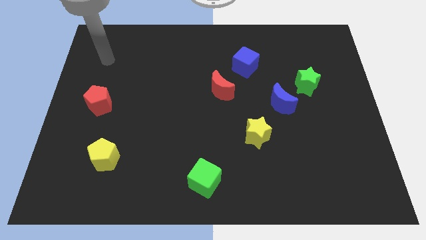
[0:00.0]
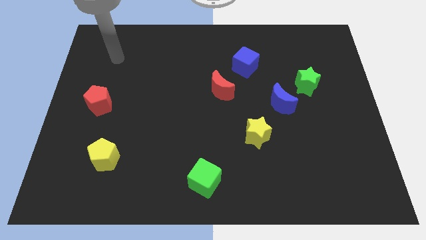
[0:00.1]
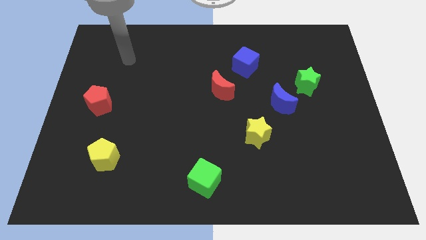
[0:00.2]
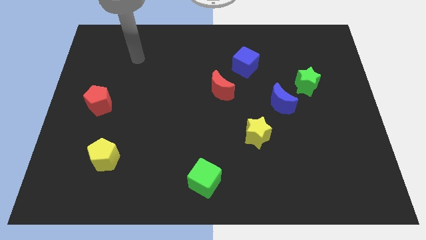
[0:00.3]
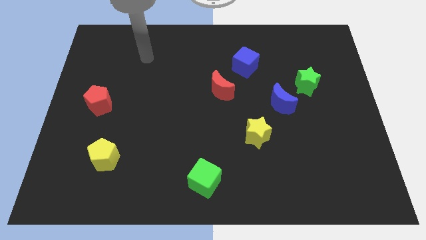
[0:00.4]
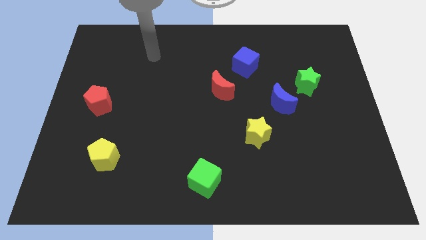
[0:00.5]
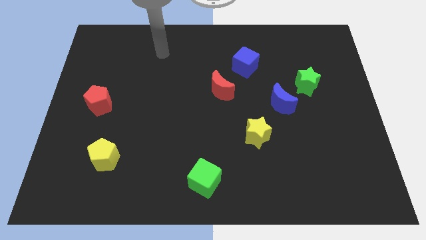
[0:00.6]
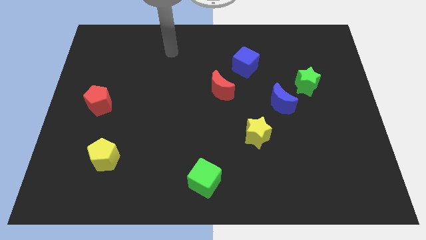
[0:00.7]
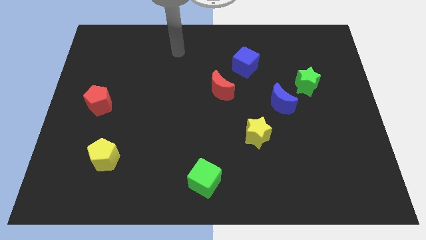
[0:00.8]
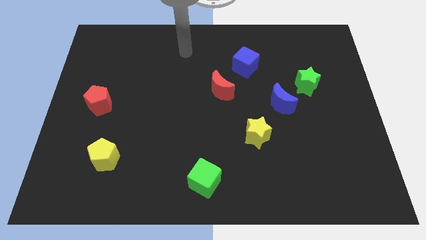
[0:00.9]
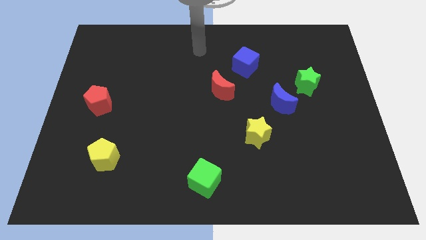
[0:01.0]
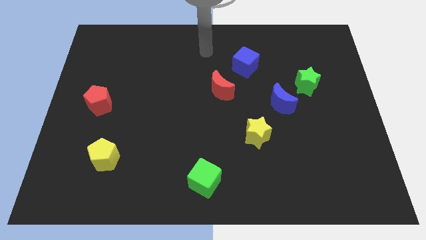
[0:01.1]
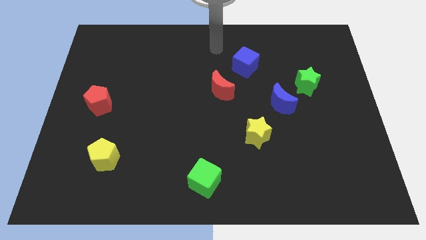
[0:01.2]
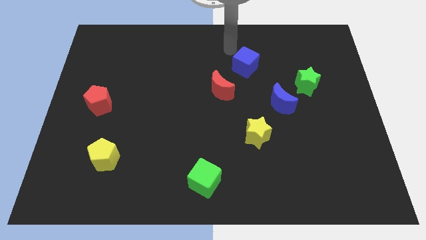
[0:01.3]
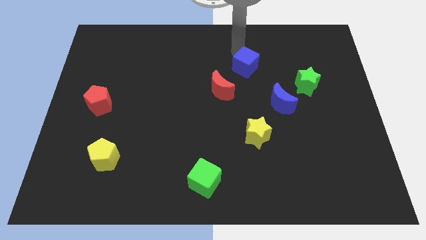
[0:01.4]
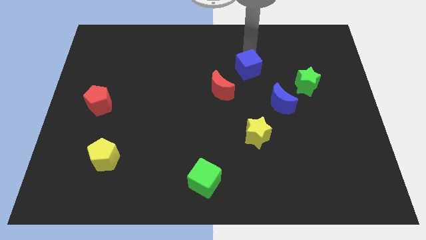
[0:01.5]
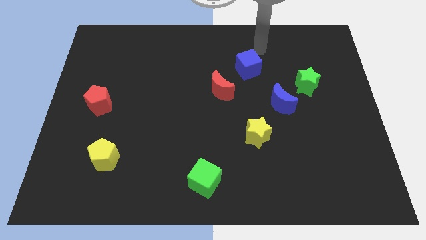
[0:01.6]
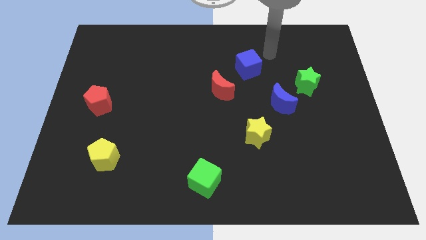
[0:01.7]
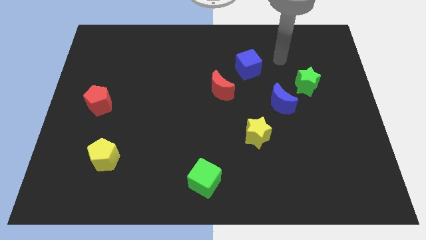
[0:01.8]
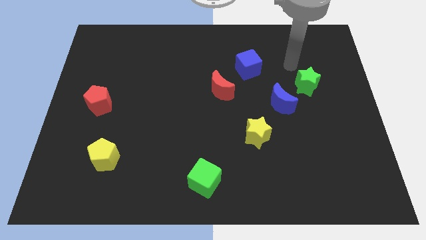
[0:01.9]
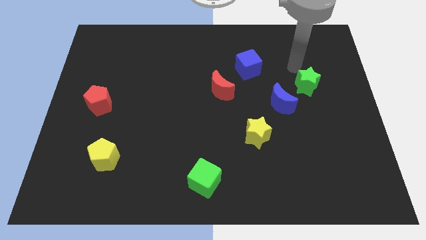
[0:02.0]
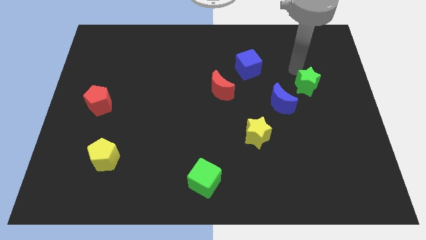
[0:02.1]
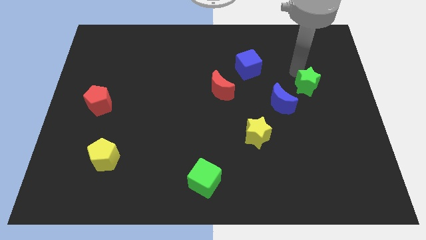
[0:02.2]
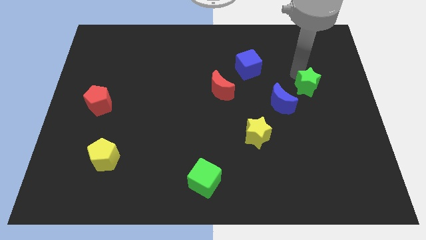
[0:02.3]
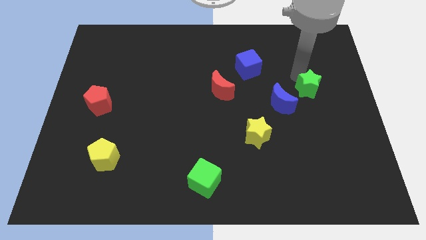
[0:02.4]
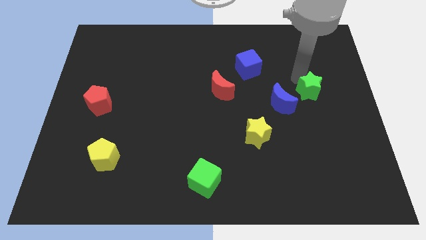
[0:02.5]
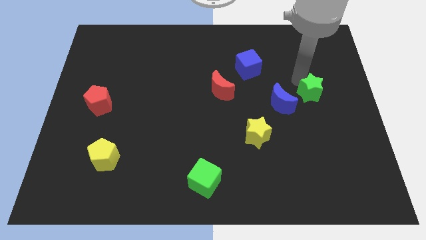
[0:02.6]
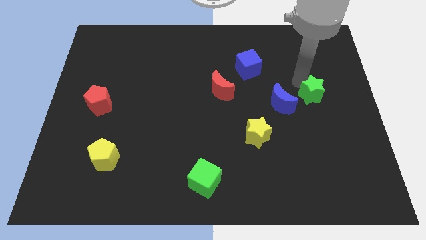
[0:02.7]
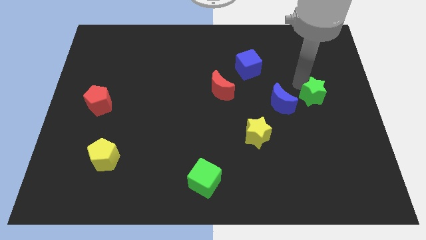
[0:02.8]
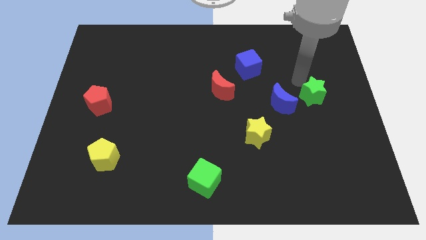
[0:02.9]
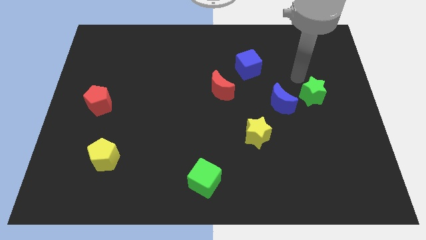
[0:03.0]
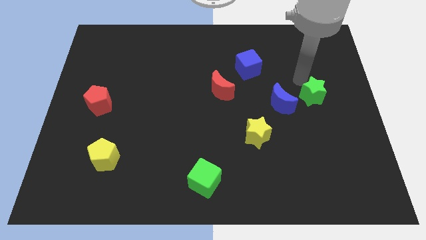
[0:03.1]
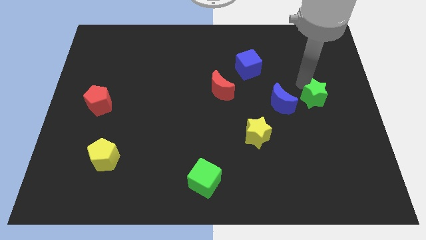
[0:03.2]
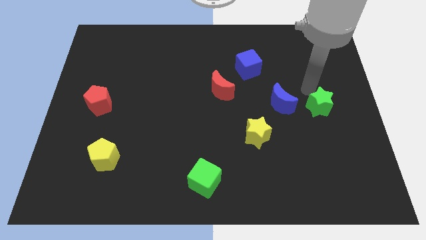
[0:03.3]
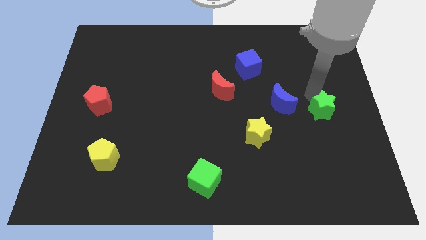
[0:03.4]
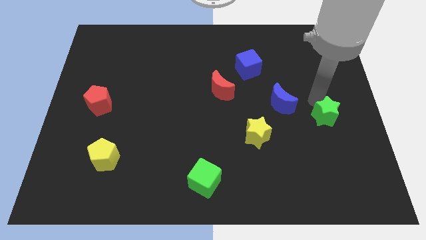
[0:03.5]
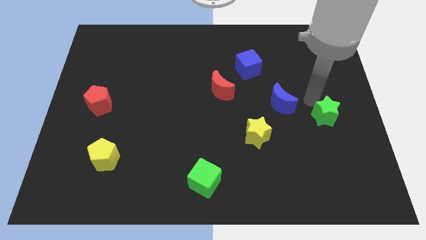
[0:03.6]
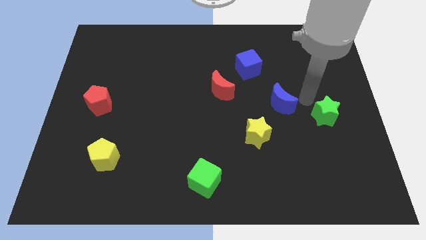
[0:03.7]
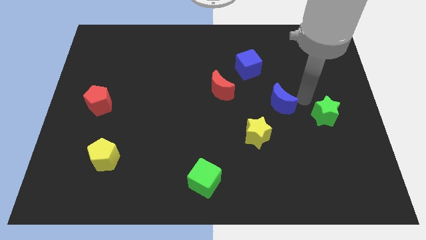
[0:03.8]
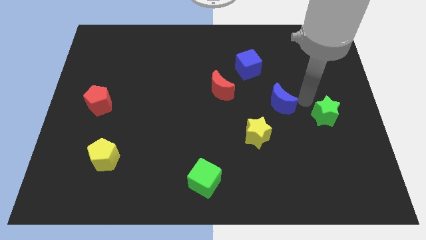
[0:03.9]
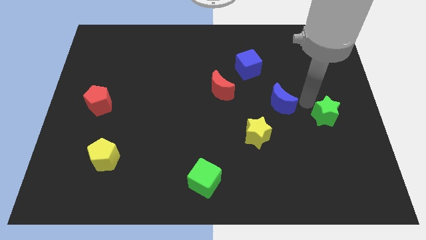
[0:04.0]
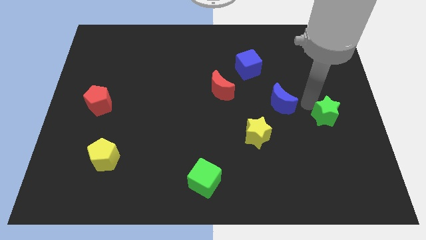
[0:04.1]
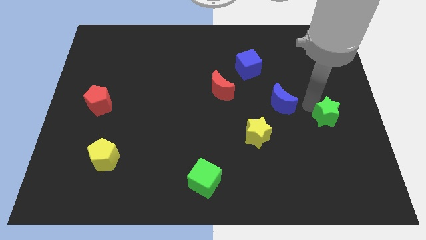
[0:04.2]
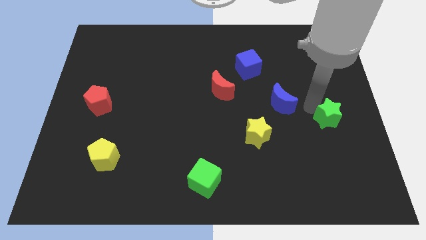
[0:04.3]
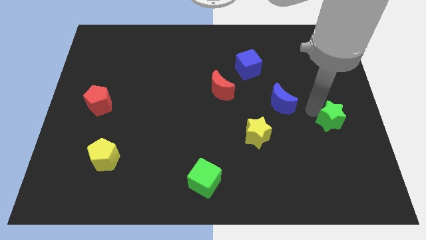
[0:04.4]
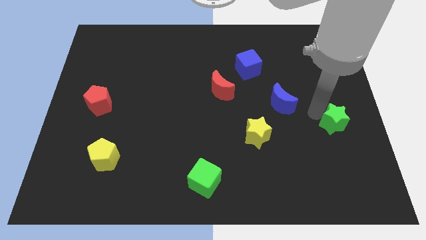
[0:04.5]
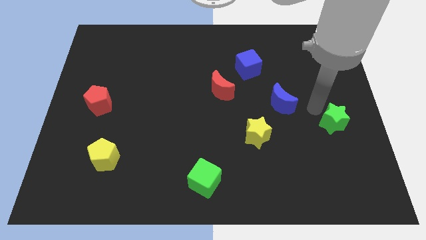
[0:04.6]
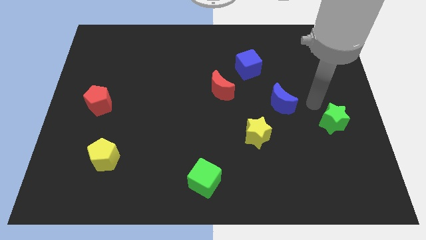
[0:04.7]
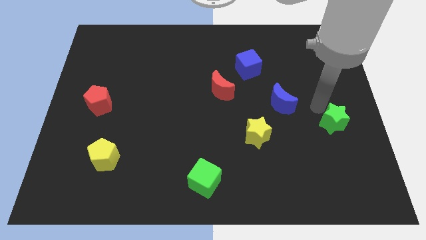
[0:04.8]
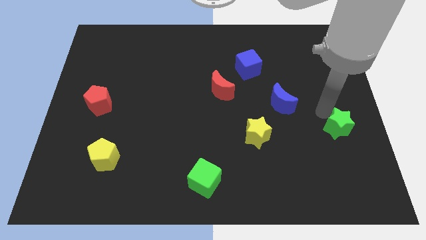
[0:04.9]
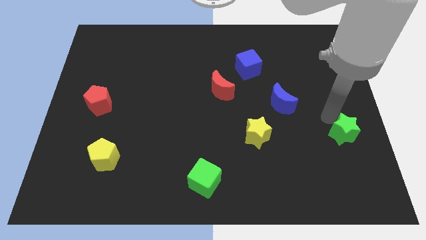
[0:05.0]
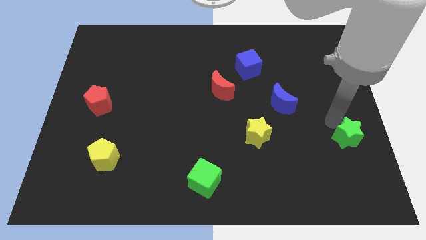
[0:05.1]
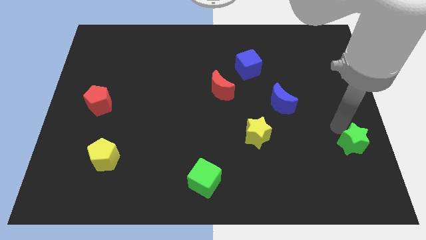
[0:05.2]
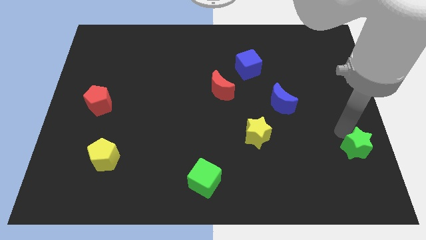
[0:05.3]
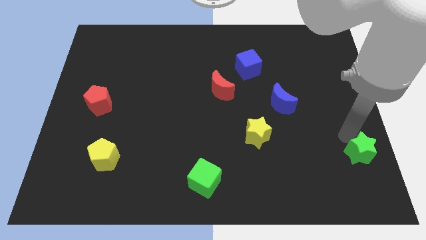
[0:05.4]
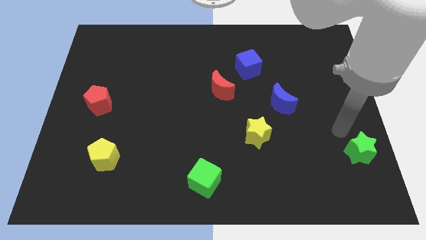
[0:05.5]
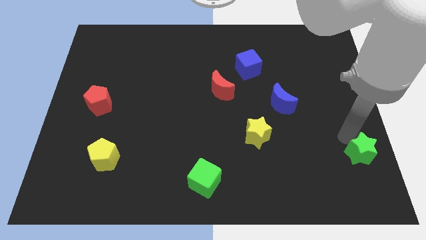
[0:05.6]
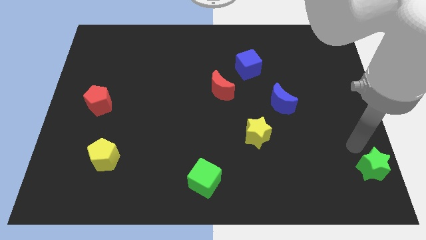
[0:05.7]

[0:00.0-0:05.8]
slide the green star to the bottom right
